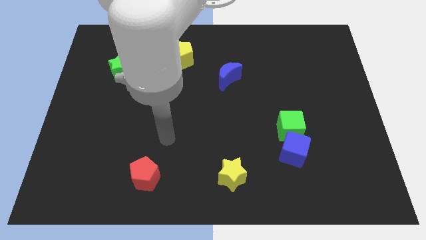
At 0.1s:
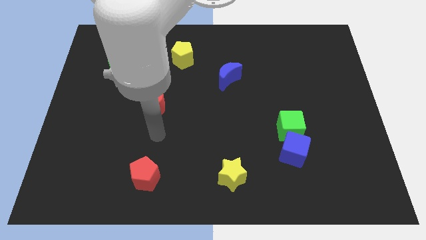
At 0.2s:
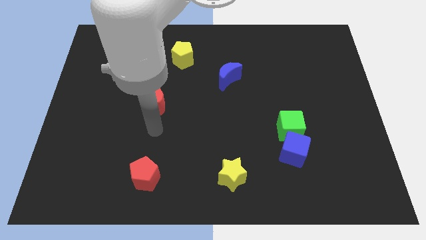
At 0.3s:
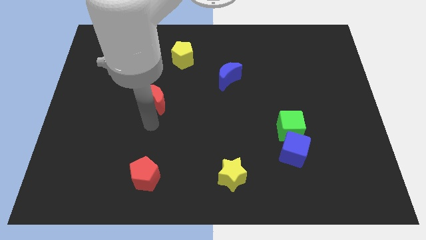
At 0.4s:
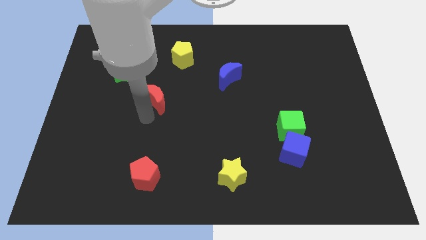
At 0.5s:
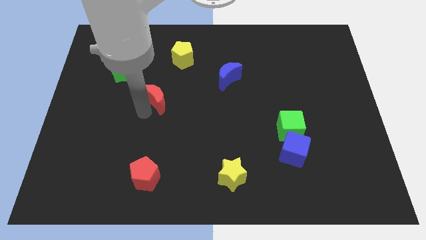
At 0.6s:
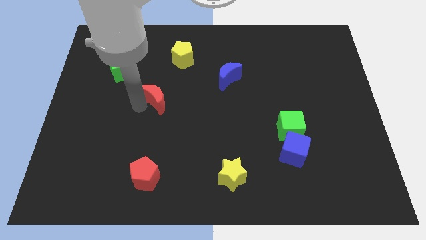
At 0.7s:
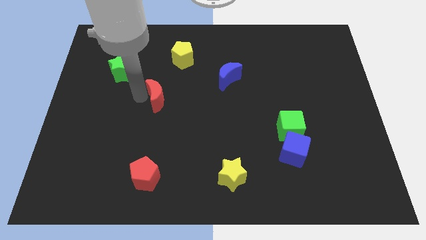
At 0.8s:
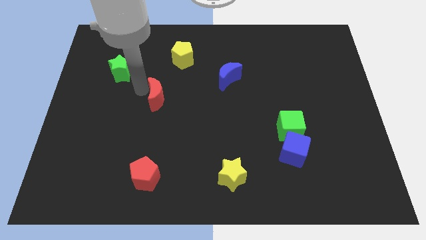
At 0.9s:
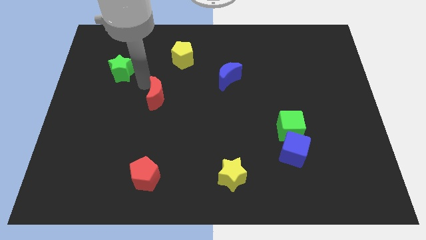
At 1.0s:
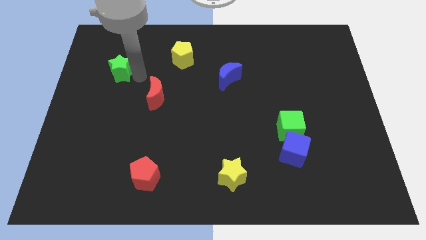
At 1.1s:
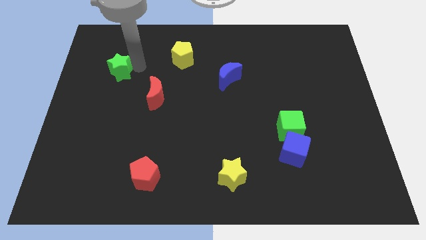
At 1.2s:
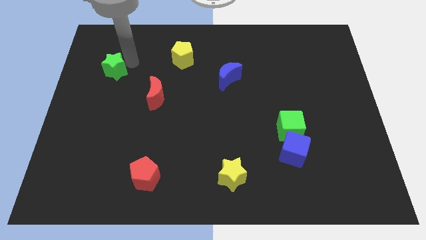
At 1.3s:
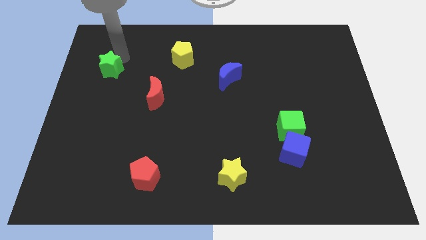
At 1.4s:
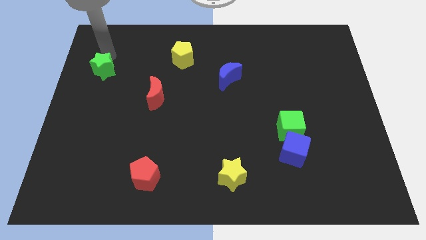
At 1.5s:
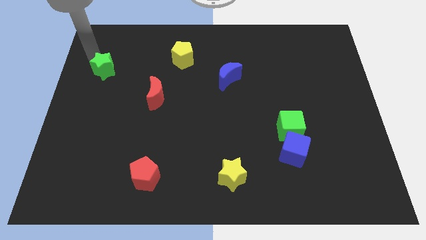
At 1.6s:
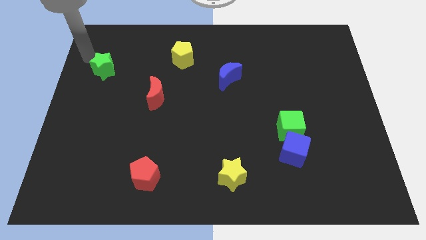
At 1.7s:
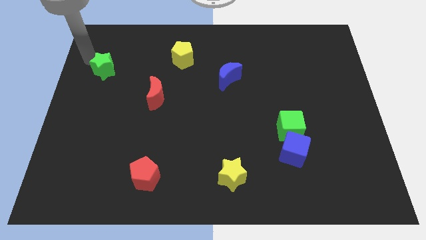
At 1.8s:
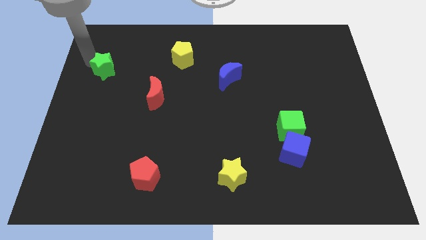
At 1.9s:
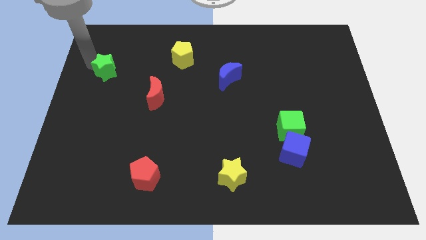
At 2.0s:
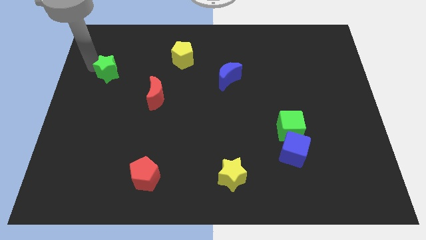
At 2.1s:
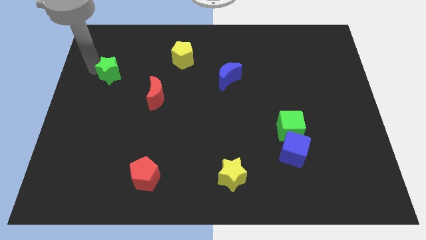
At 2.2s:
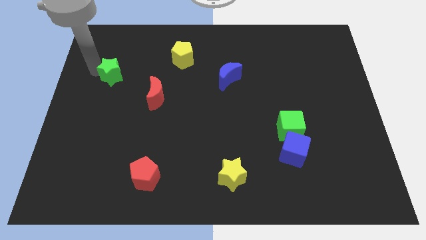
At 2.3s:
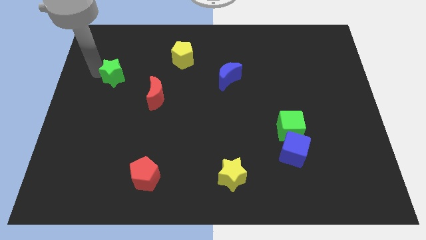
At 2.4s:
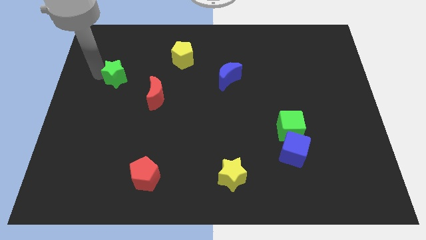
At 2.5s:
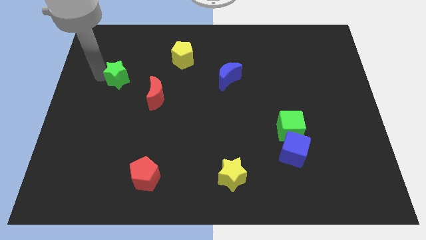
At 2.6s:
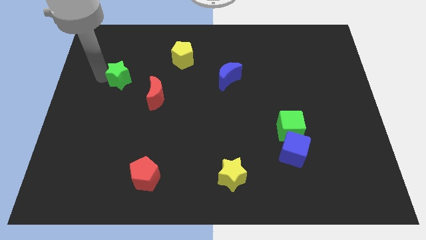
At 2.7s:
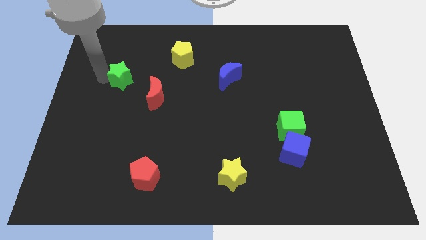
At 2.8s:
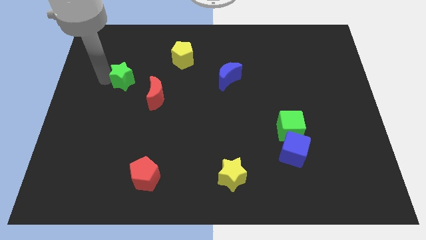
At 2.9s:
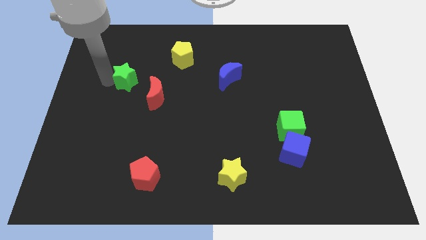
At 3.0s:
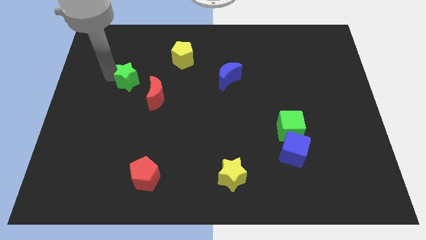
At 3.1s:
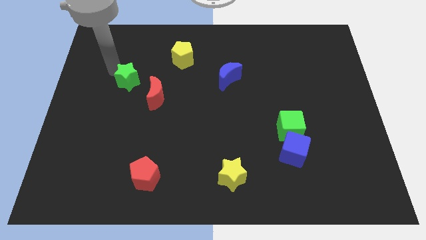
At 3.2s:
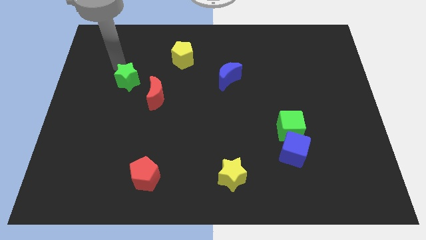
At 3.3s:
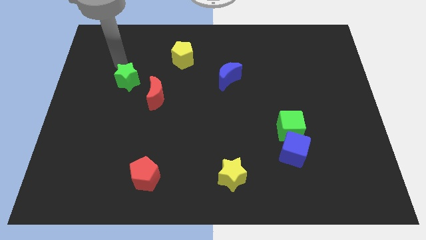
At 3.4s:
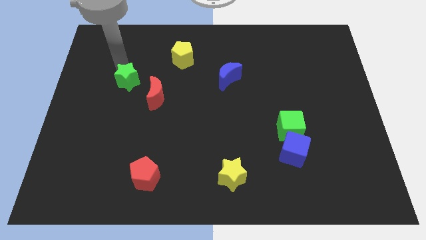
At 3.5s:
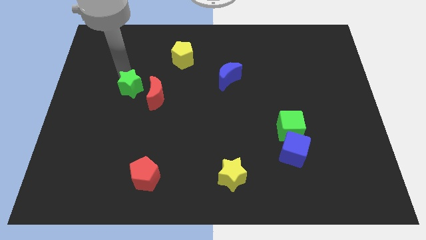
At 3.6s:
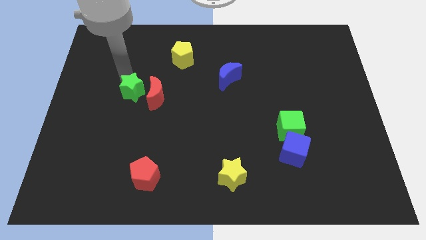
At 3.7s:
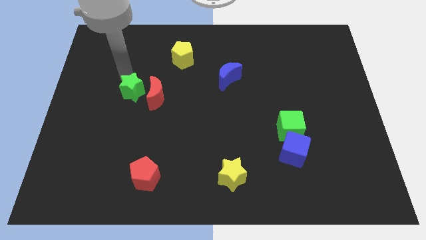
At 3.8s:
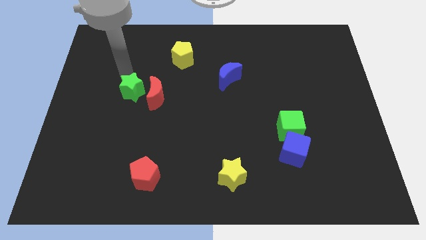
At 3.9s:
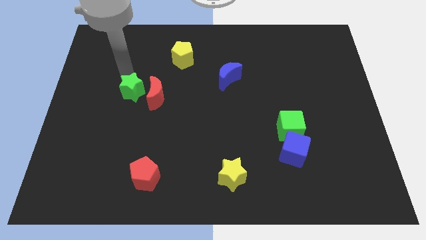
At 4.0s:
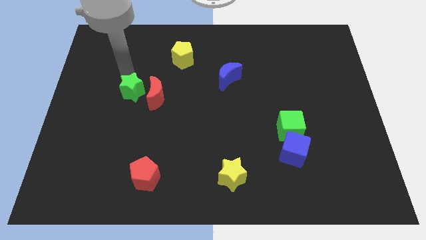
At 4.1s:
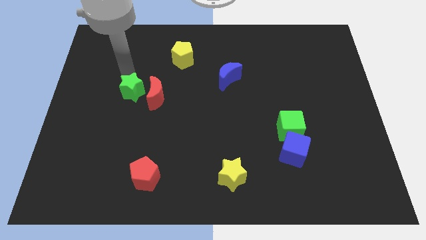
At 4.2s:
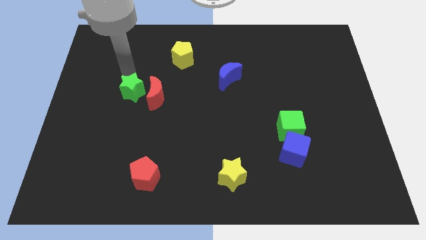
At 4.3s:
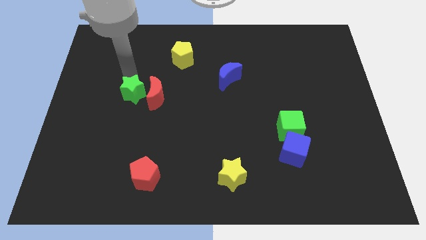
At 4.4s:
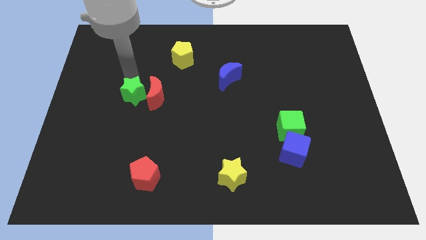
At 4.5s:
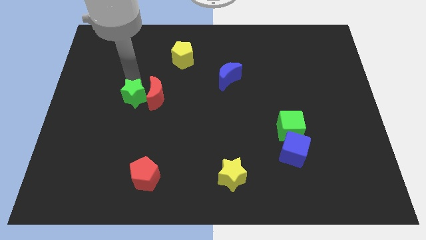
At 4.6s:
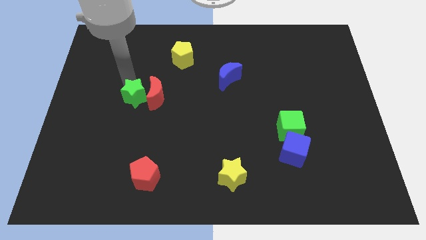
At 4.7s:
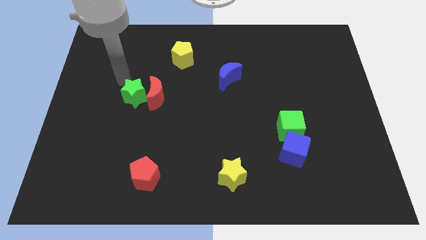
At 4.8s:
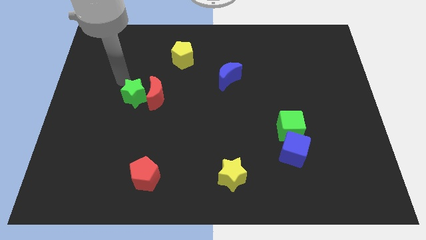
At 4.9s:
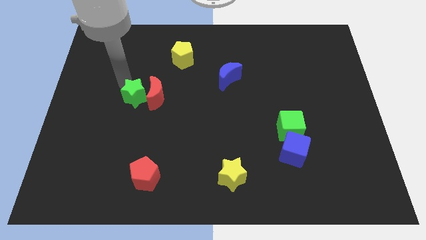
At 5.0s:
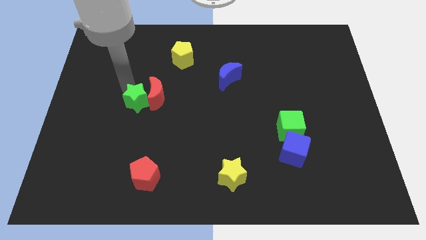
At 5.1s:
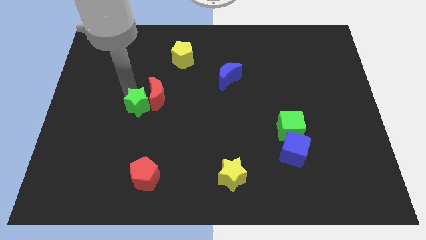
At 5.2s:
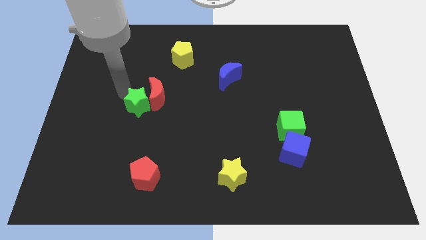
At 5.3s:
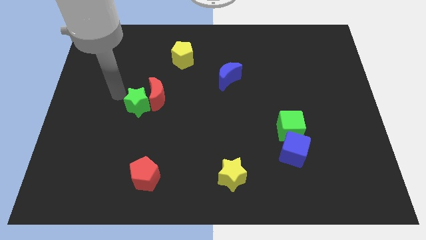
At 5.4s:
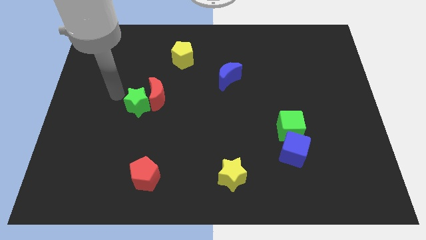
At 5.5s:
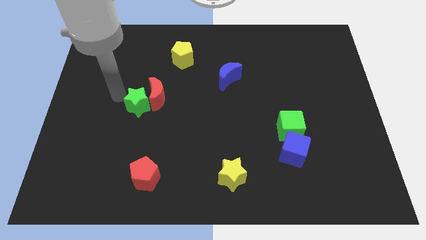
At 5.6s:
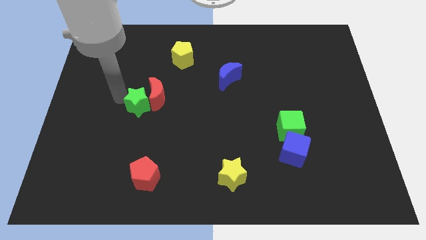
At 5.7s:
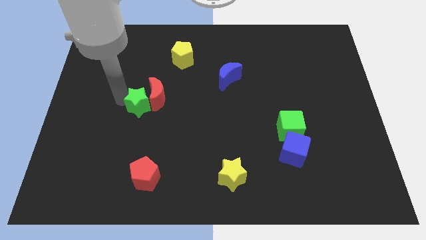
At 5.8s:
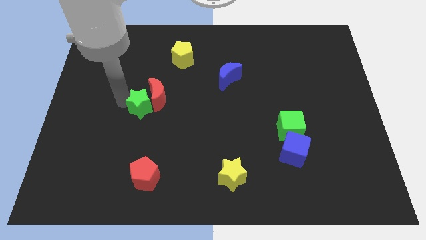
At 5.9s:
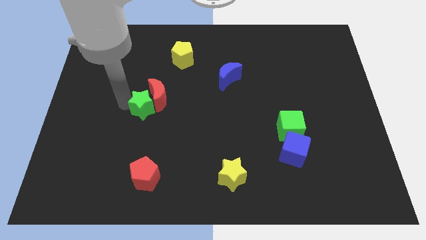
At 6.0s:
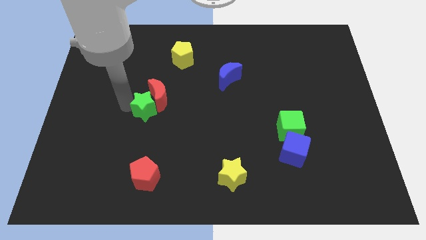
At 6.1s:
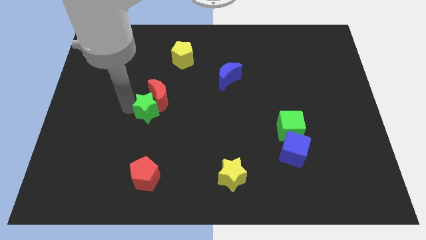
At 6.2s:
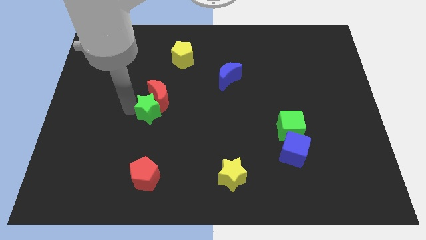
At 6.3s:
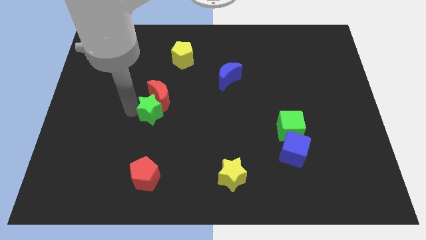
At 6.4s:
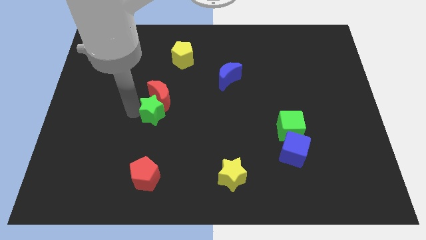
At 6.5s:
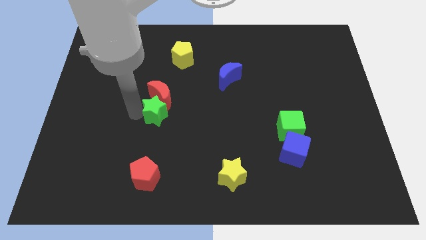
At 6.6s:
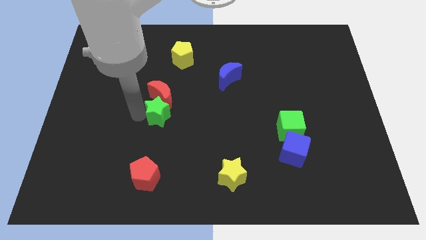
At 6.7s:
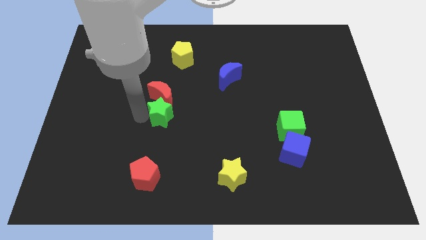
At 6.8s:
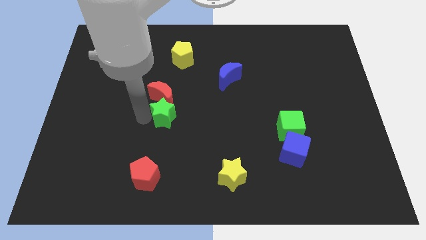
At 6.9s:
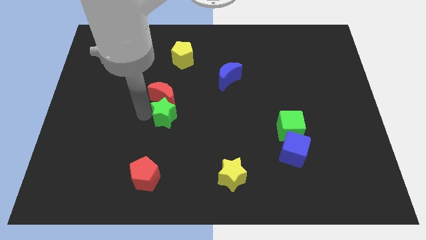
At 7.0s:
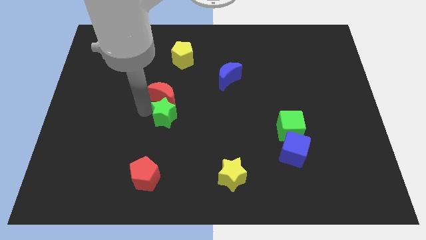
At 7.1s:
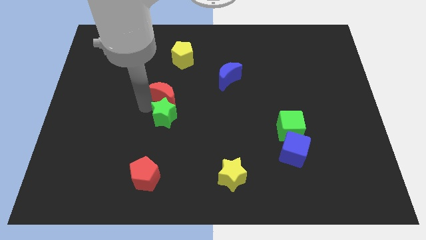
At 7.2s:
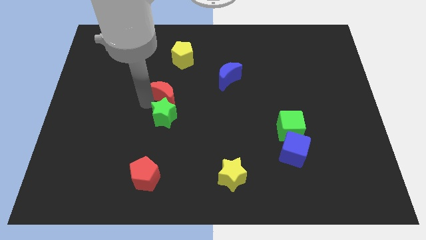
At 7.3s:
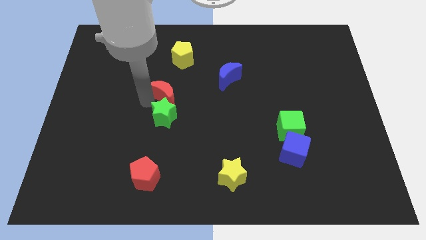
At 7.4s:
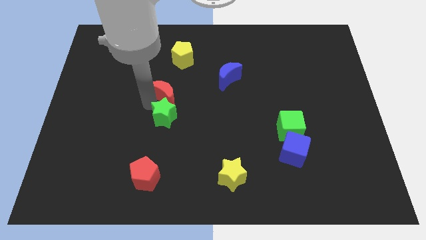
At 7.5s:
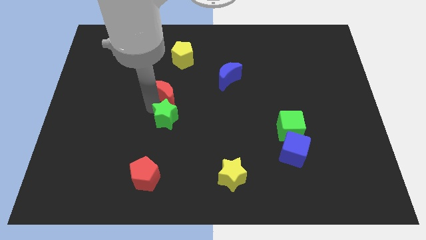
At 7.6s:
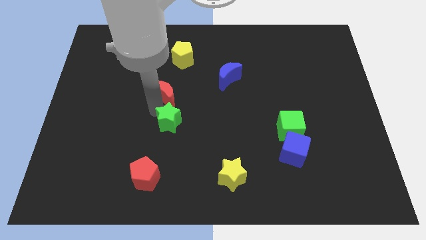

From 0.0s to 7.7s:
push the green star diagonally downwards and right
